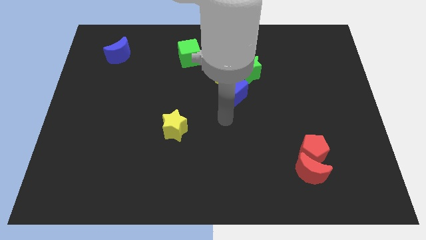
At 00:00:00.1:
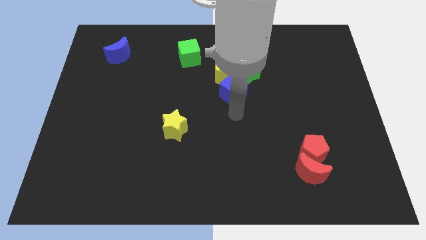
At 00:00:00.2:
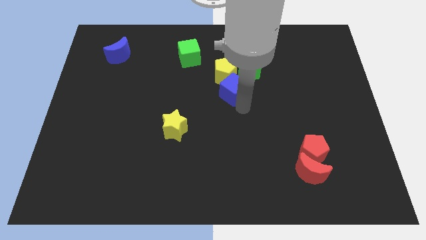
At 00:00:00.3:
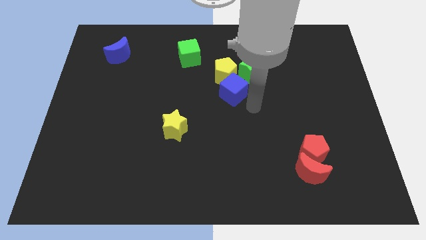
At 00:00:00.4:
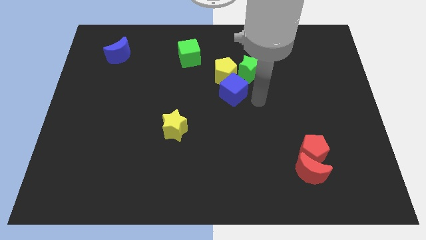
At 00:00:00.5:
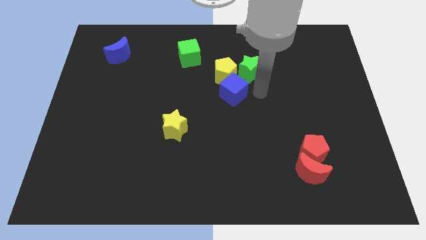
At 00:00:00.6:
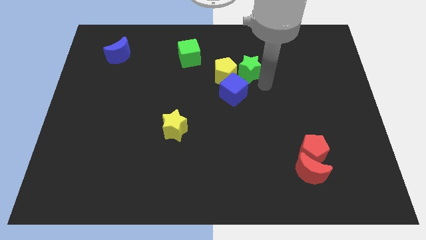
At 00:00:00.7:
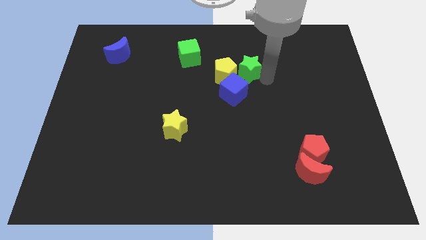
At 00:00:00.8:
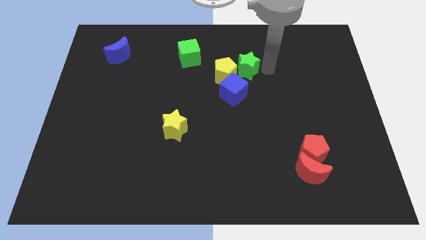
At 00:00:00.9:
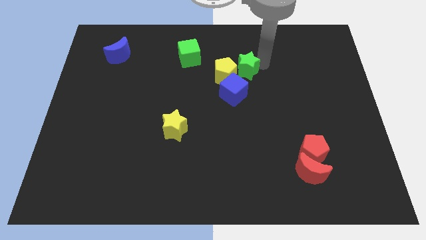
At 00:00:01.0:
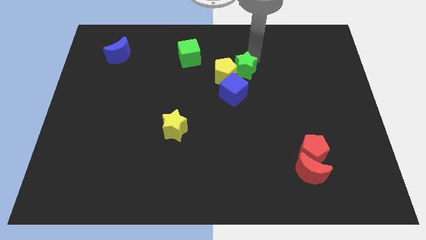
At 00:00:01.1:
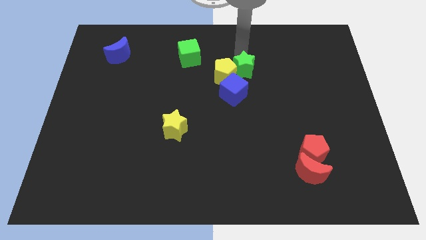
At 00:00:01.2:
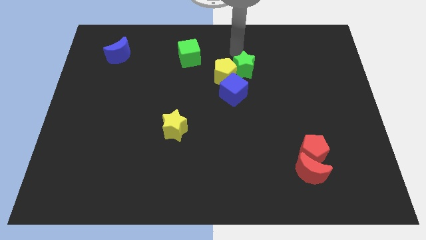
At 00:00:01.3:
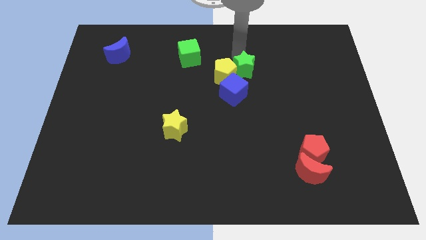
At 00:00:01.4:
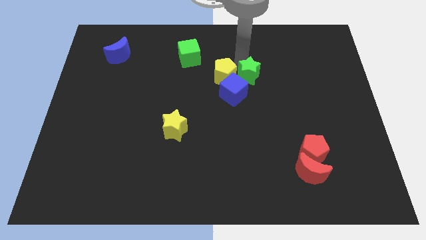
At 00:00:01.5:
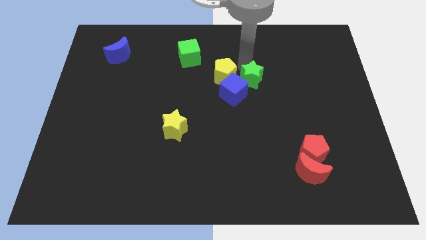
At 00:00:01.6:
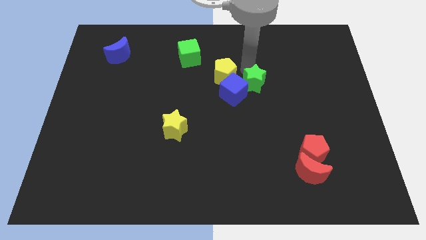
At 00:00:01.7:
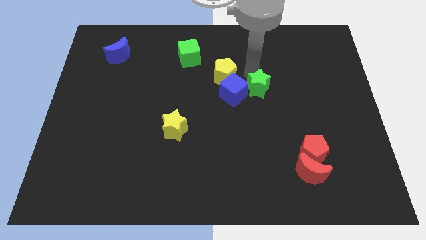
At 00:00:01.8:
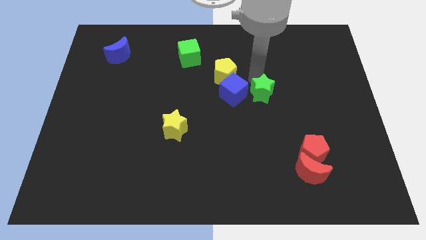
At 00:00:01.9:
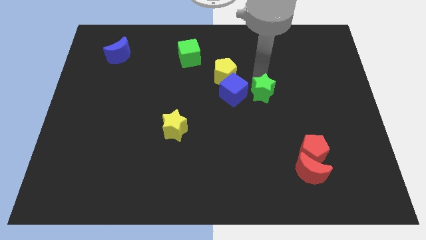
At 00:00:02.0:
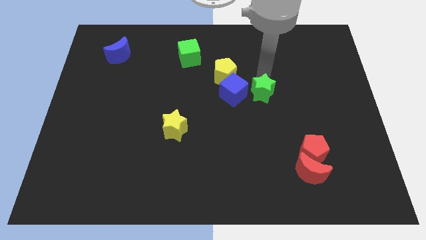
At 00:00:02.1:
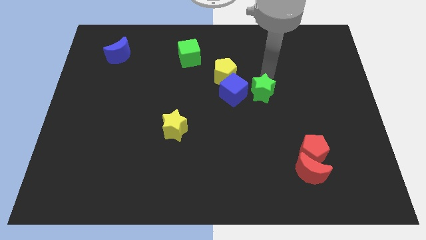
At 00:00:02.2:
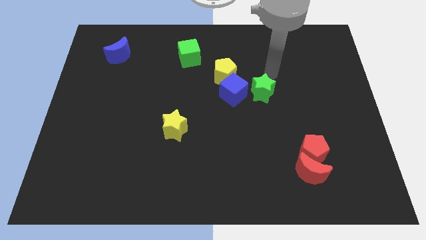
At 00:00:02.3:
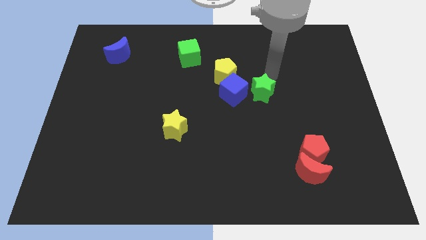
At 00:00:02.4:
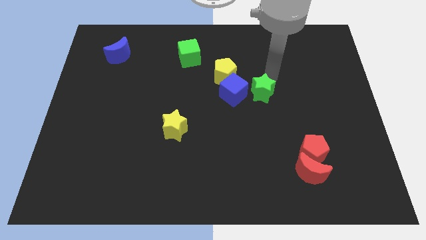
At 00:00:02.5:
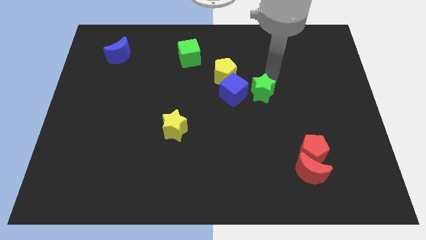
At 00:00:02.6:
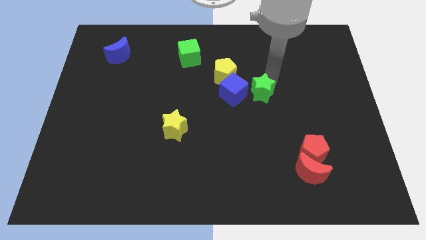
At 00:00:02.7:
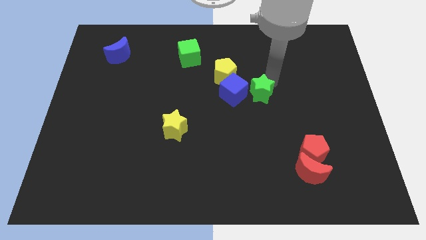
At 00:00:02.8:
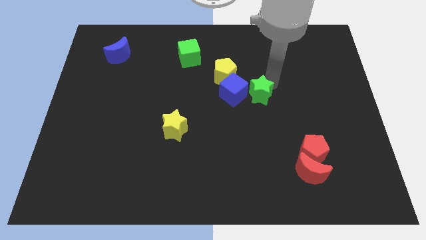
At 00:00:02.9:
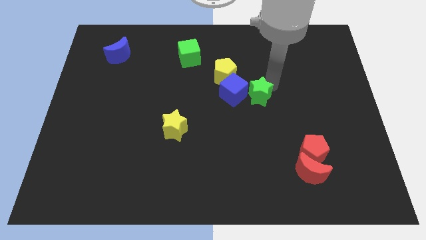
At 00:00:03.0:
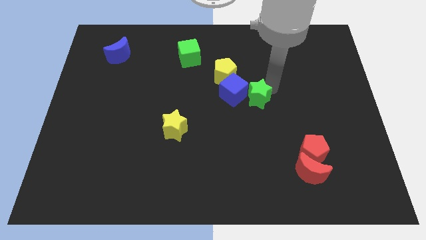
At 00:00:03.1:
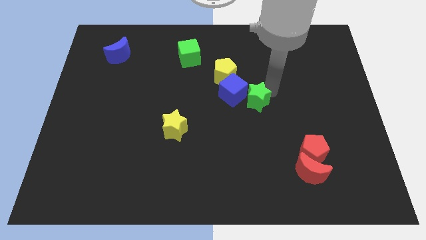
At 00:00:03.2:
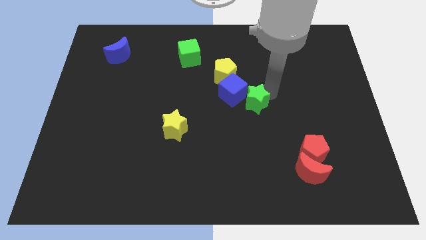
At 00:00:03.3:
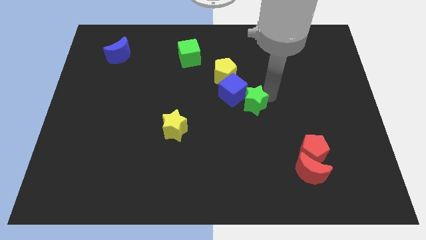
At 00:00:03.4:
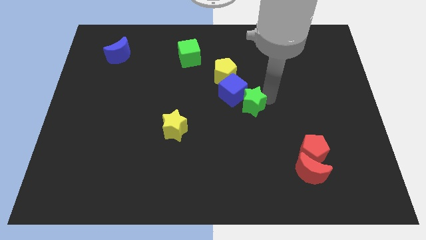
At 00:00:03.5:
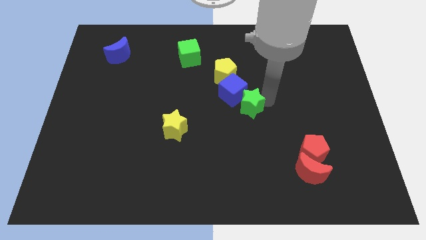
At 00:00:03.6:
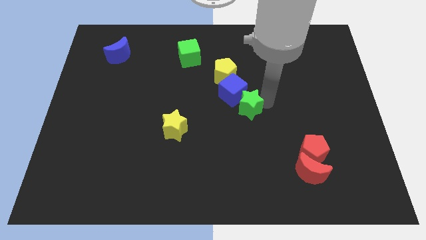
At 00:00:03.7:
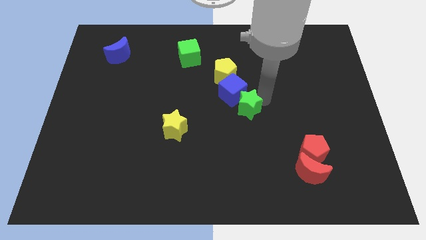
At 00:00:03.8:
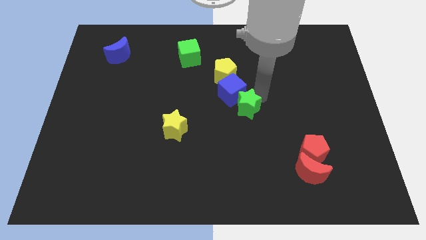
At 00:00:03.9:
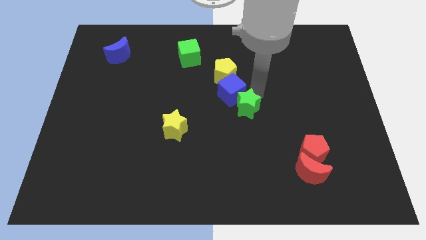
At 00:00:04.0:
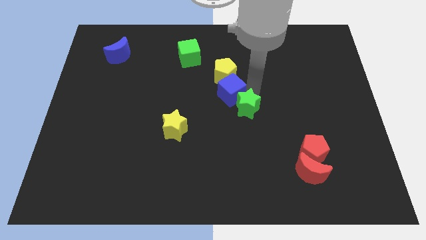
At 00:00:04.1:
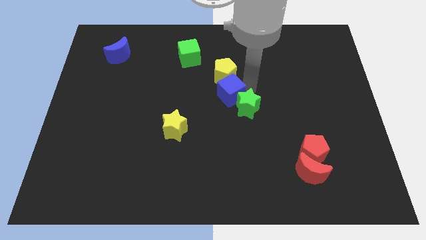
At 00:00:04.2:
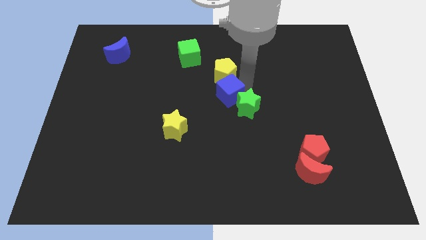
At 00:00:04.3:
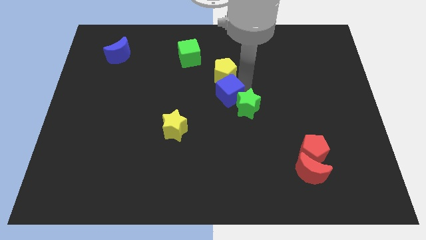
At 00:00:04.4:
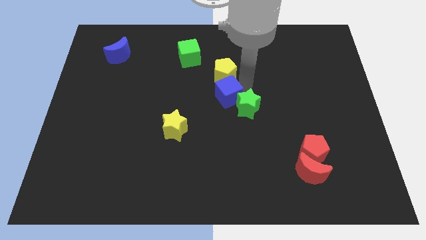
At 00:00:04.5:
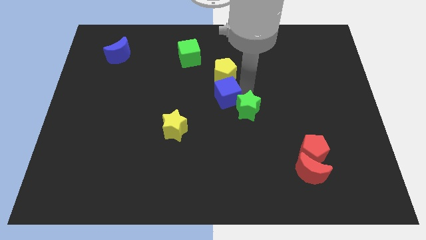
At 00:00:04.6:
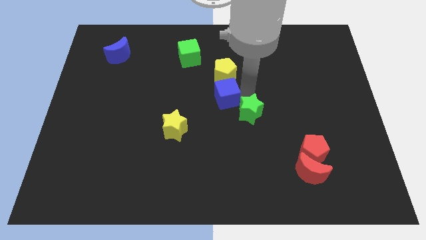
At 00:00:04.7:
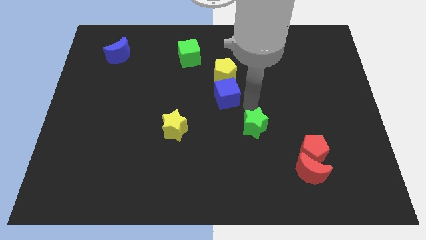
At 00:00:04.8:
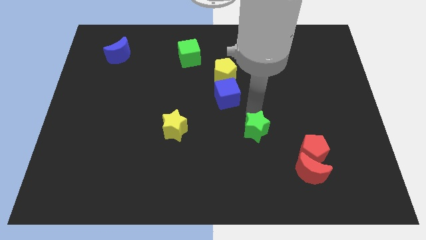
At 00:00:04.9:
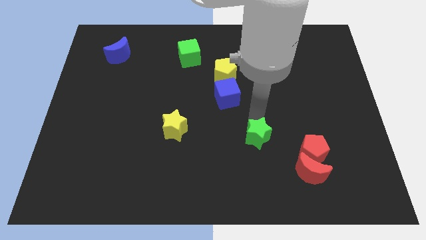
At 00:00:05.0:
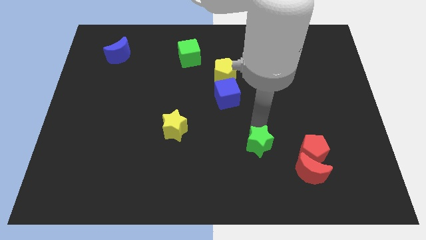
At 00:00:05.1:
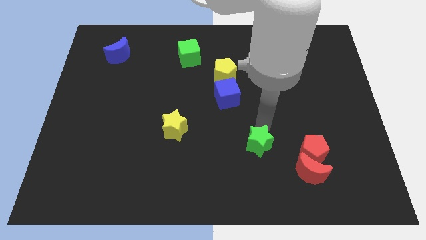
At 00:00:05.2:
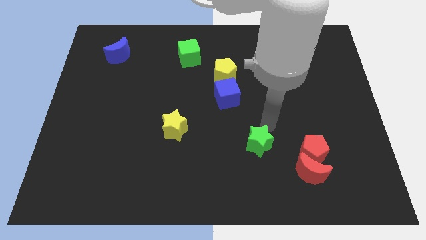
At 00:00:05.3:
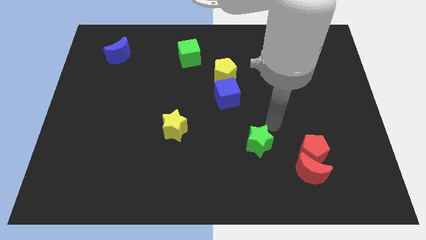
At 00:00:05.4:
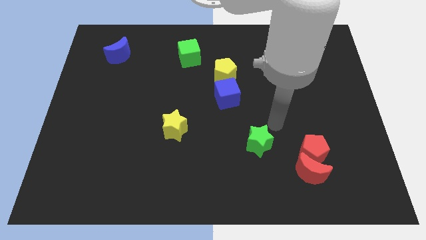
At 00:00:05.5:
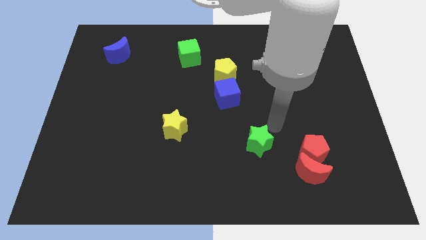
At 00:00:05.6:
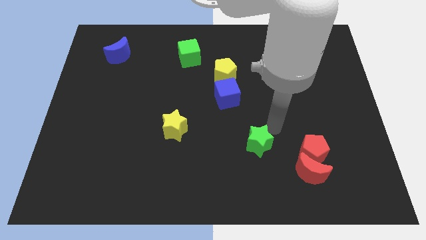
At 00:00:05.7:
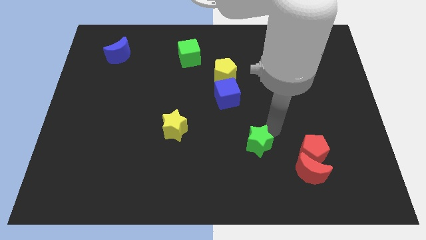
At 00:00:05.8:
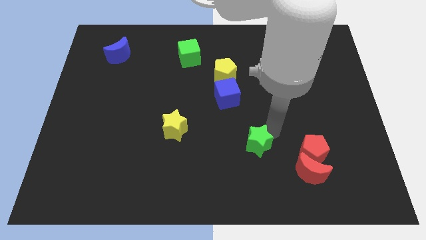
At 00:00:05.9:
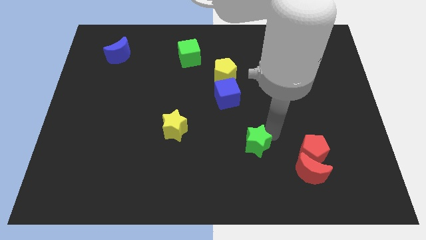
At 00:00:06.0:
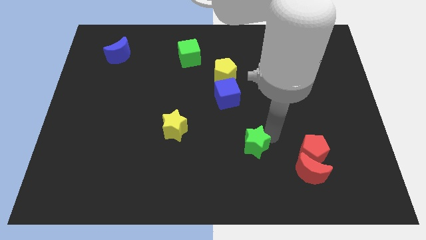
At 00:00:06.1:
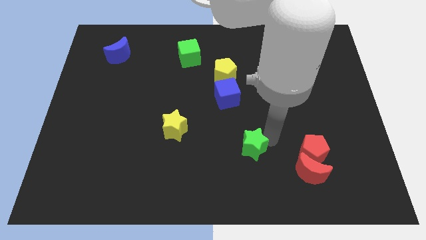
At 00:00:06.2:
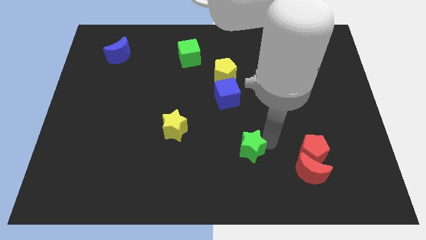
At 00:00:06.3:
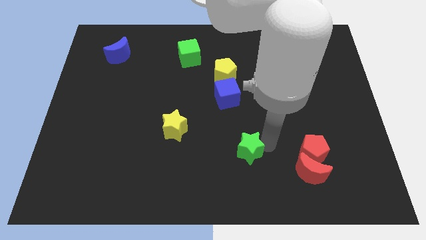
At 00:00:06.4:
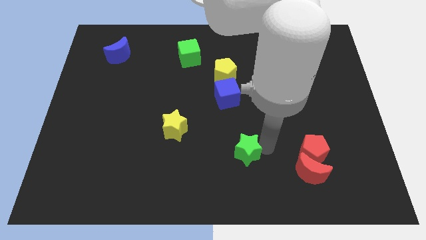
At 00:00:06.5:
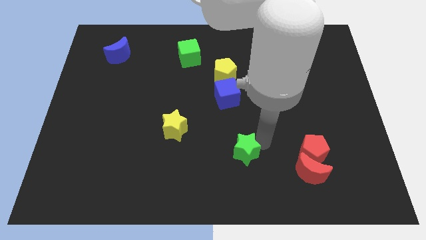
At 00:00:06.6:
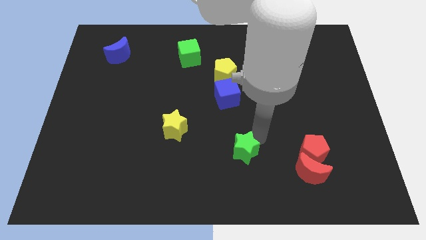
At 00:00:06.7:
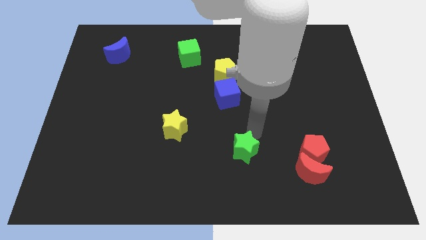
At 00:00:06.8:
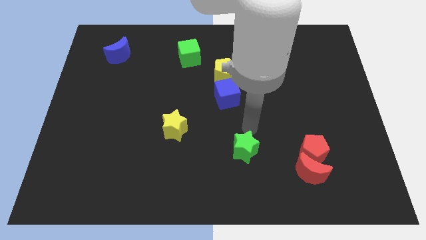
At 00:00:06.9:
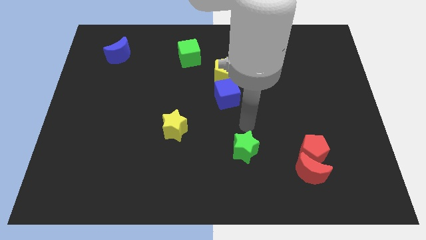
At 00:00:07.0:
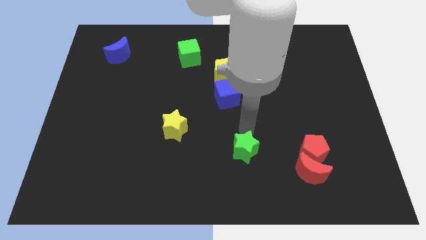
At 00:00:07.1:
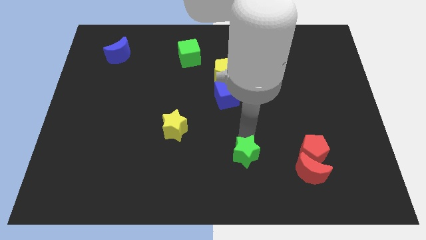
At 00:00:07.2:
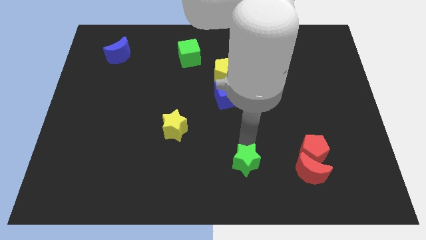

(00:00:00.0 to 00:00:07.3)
put the green star to the bottom side
